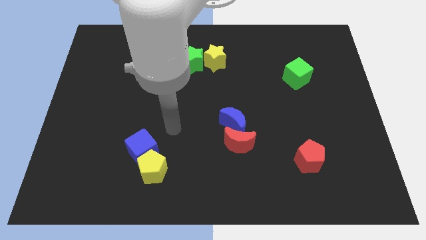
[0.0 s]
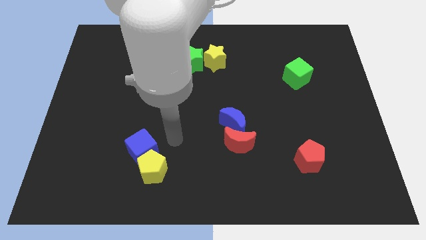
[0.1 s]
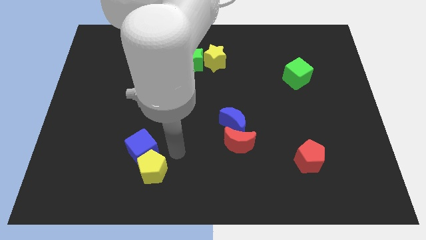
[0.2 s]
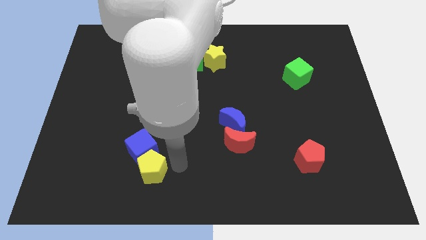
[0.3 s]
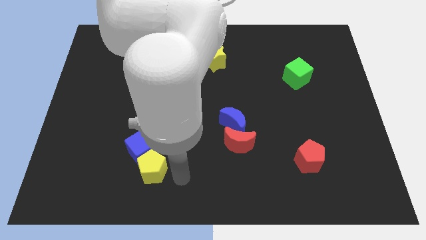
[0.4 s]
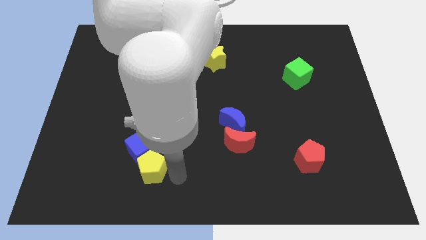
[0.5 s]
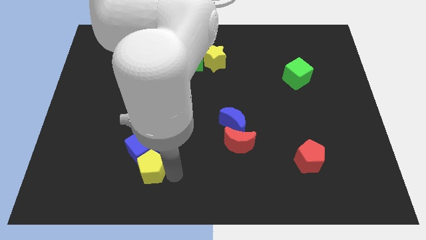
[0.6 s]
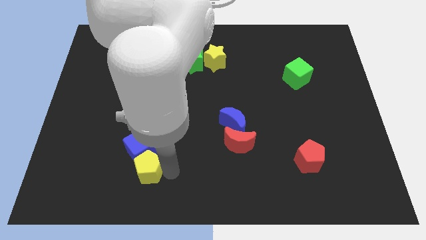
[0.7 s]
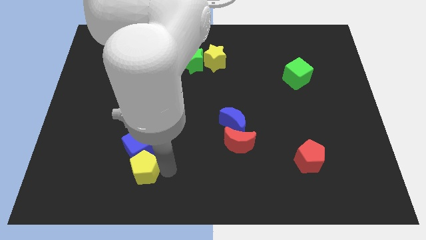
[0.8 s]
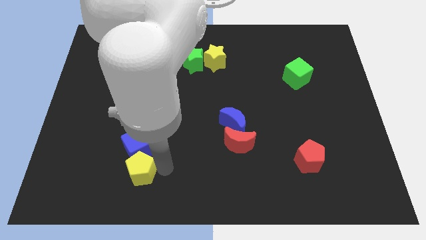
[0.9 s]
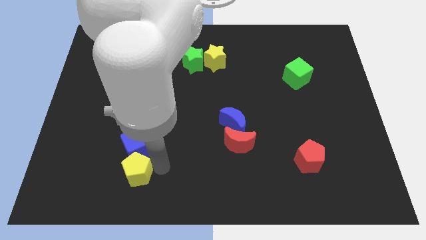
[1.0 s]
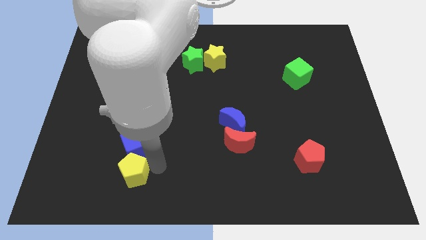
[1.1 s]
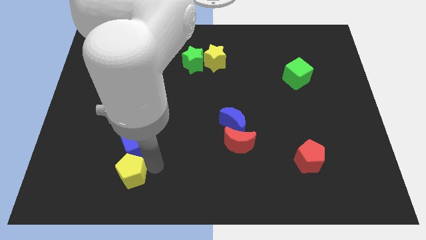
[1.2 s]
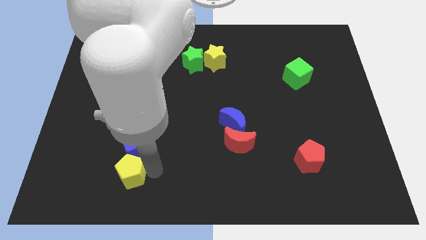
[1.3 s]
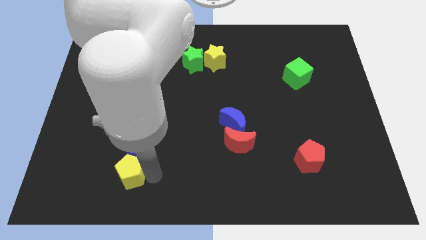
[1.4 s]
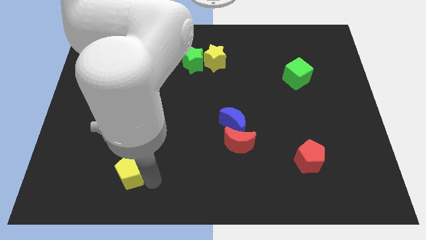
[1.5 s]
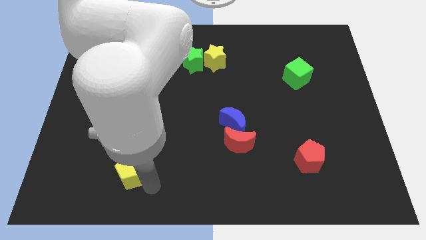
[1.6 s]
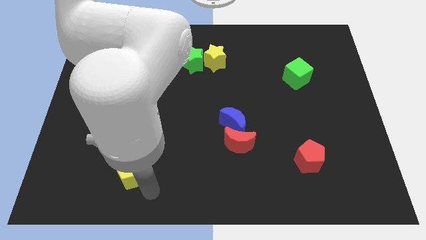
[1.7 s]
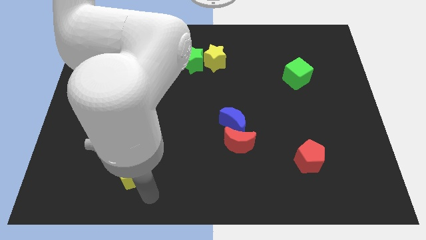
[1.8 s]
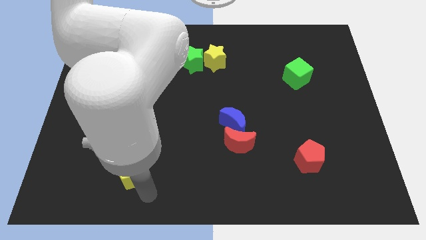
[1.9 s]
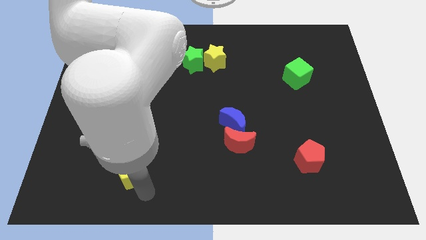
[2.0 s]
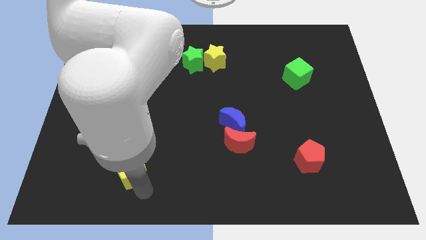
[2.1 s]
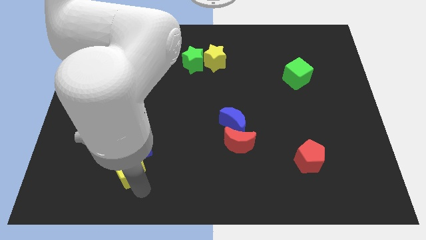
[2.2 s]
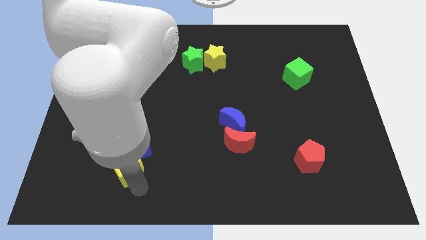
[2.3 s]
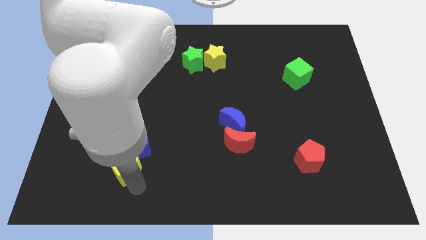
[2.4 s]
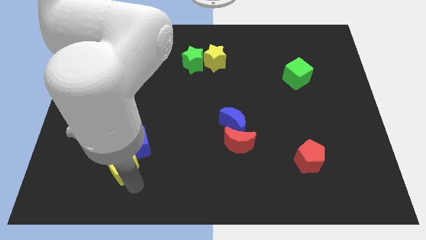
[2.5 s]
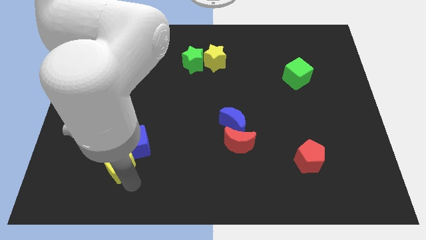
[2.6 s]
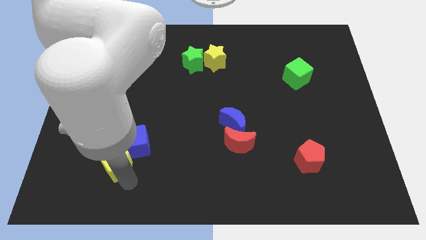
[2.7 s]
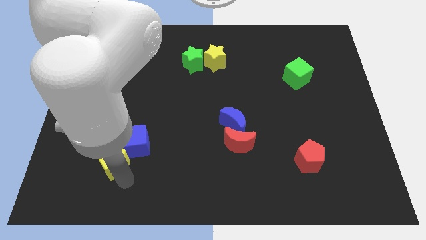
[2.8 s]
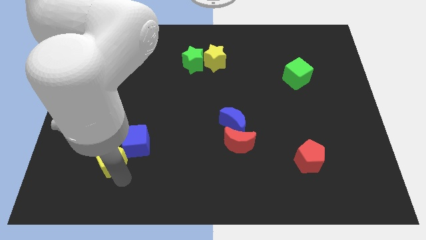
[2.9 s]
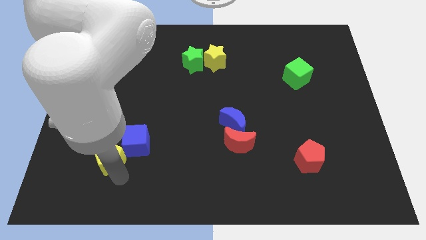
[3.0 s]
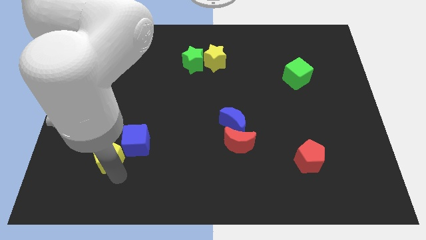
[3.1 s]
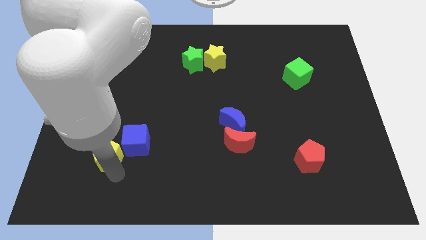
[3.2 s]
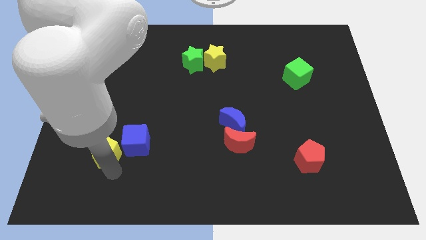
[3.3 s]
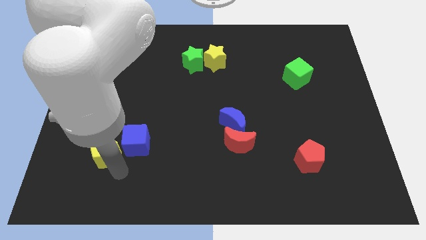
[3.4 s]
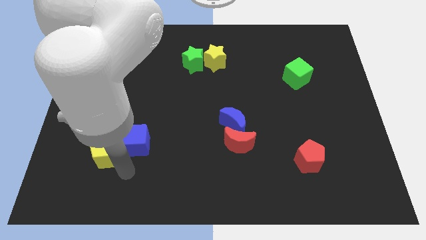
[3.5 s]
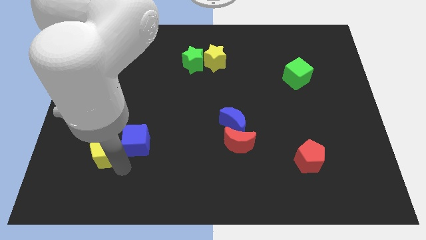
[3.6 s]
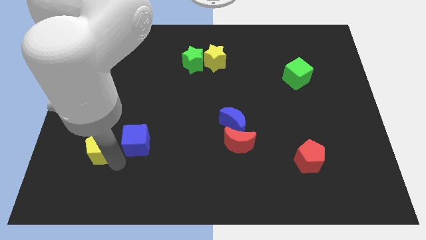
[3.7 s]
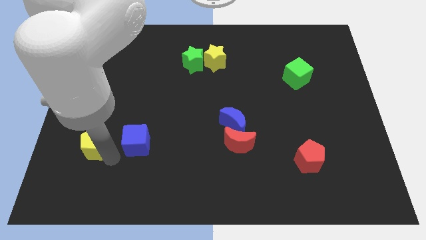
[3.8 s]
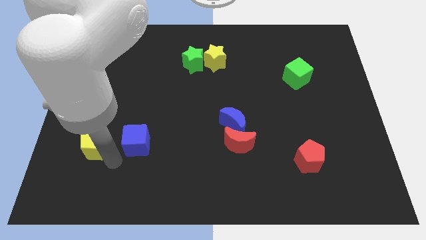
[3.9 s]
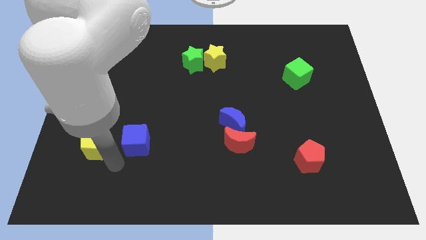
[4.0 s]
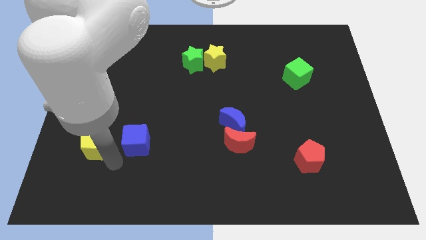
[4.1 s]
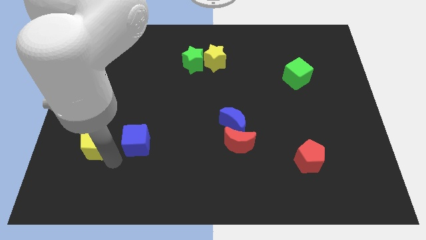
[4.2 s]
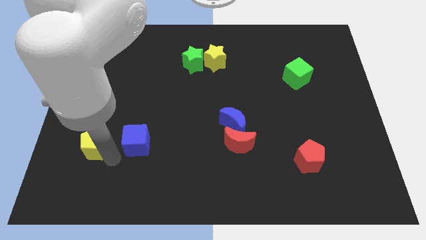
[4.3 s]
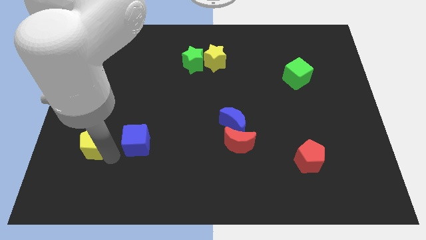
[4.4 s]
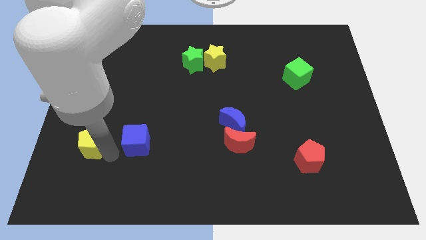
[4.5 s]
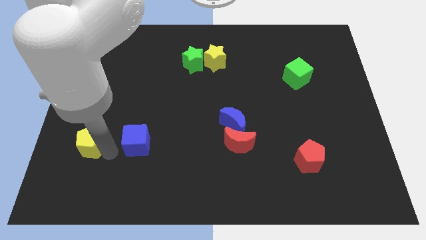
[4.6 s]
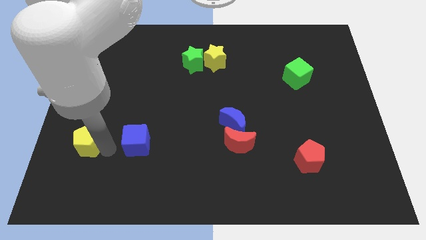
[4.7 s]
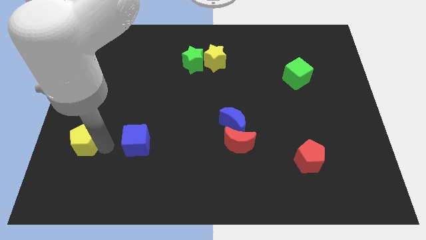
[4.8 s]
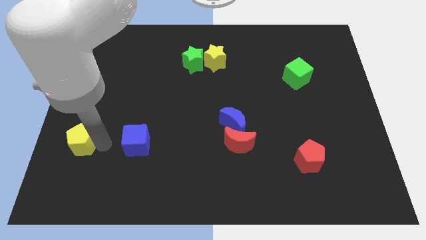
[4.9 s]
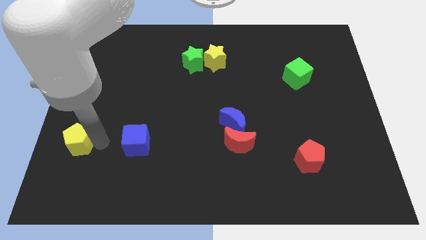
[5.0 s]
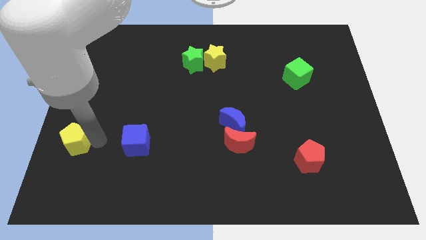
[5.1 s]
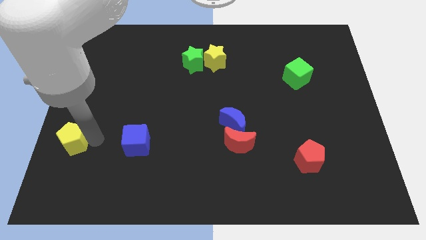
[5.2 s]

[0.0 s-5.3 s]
put the yellow pentagon to the left side
